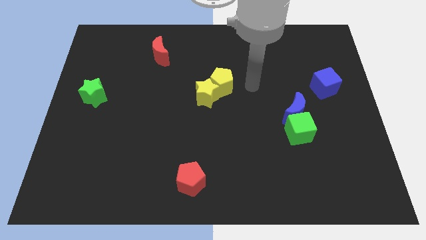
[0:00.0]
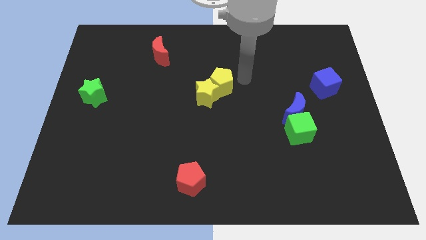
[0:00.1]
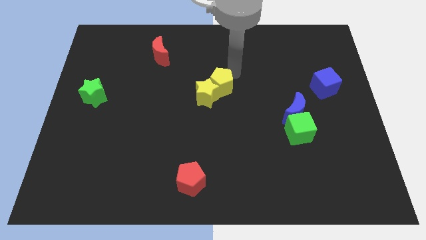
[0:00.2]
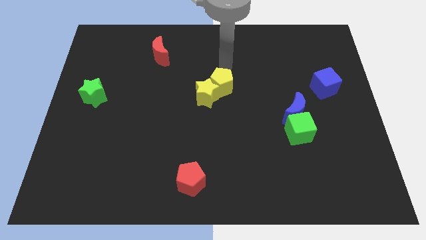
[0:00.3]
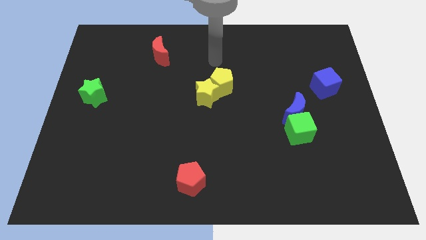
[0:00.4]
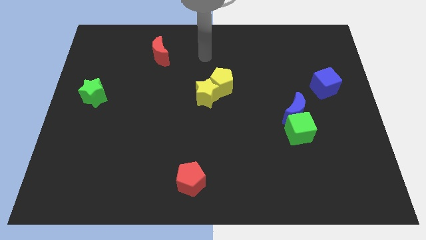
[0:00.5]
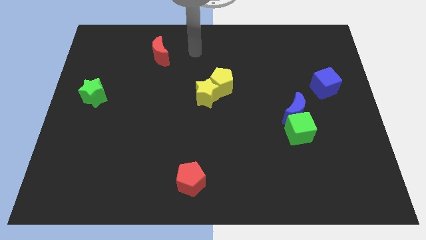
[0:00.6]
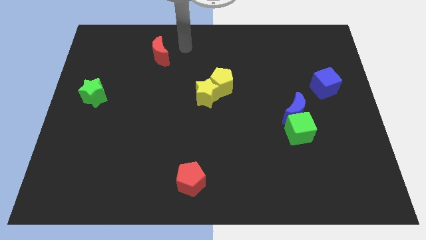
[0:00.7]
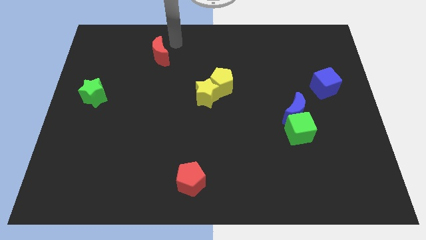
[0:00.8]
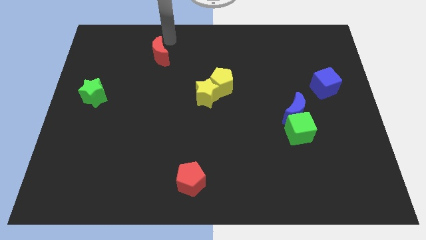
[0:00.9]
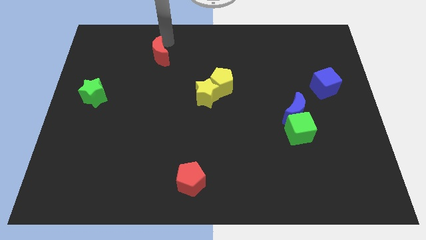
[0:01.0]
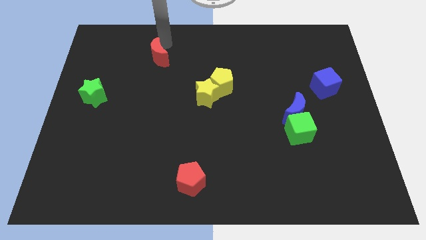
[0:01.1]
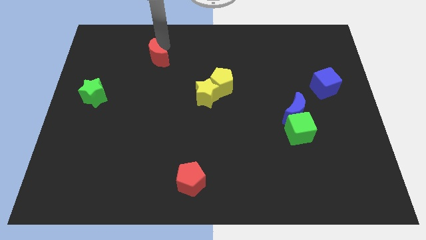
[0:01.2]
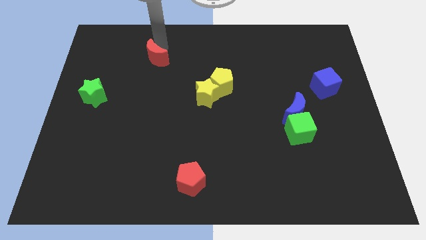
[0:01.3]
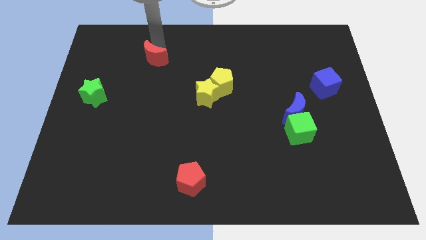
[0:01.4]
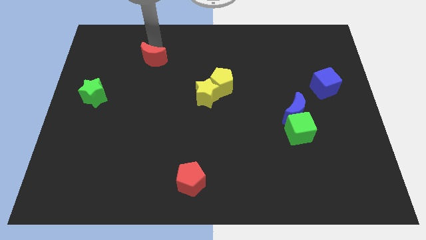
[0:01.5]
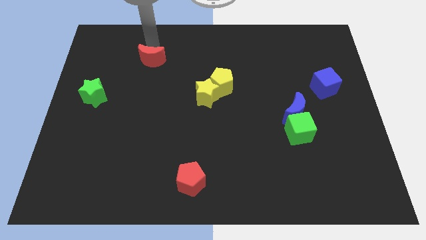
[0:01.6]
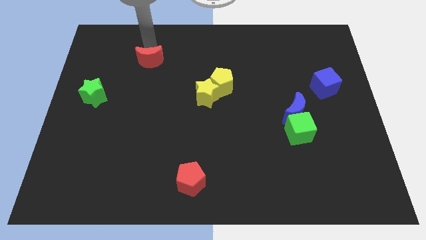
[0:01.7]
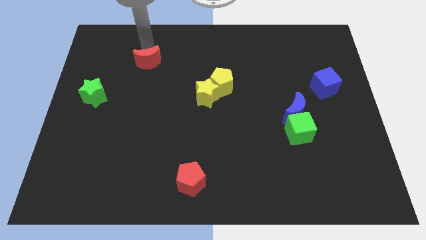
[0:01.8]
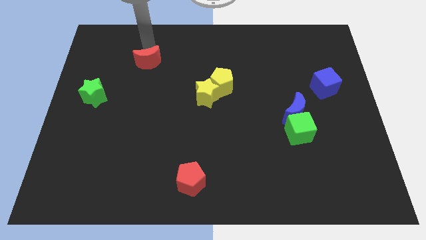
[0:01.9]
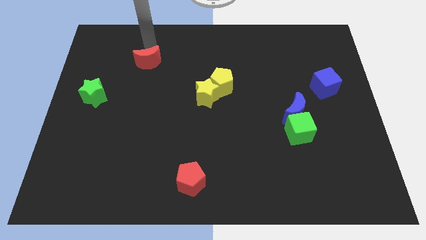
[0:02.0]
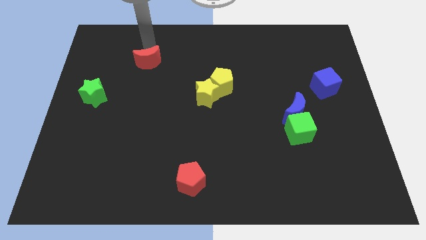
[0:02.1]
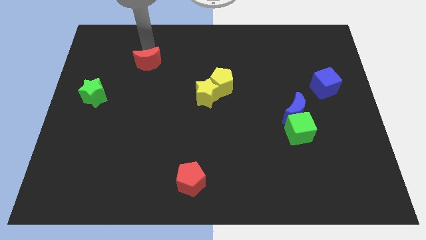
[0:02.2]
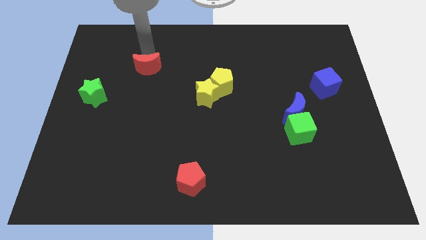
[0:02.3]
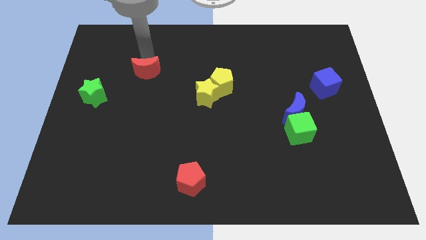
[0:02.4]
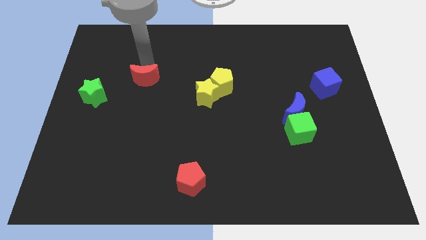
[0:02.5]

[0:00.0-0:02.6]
slightly slide the red moon downwards

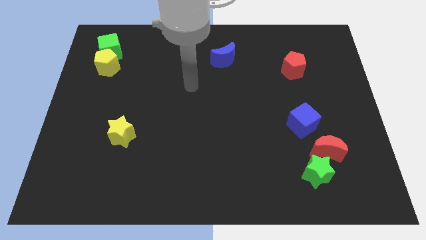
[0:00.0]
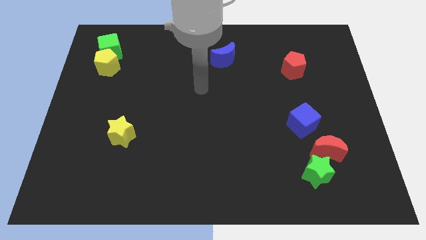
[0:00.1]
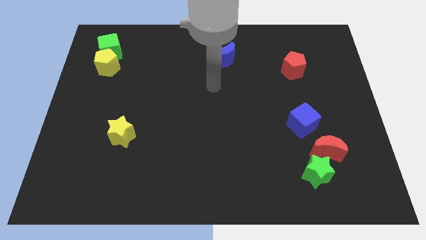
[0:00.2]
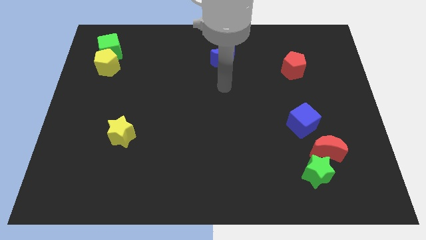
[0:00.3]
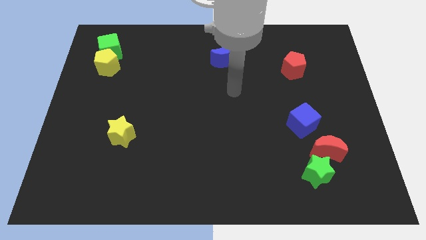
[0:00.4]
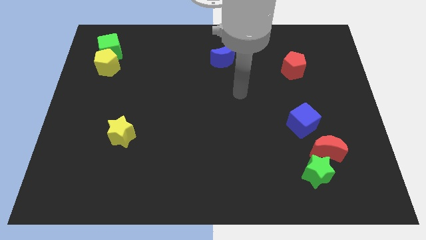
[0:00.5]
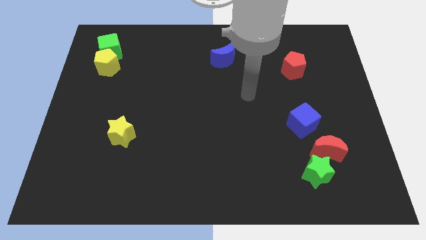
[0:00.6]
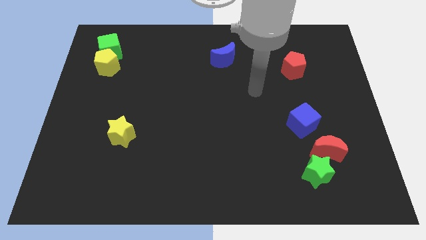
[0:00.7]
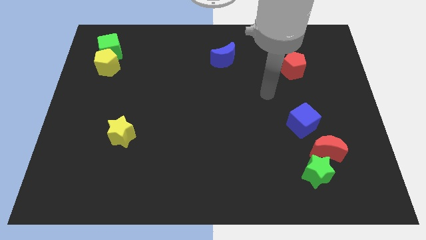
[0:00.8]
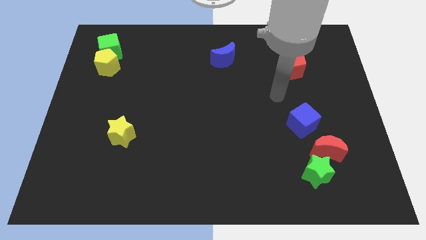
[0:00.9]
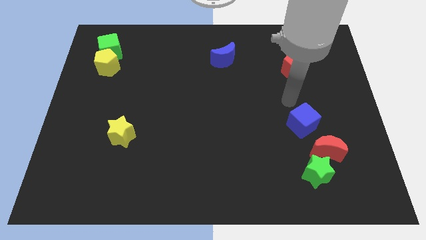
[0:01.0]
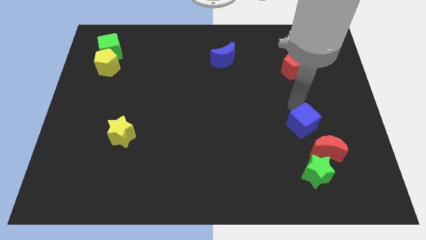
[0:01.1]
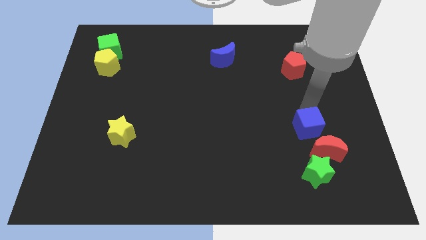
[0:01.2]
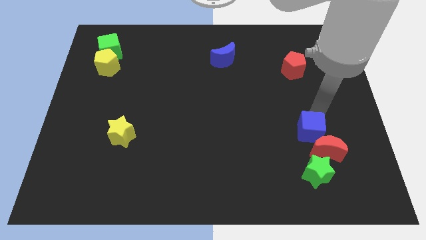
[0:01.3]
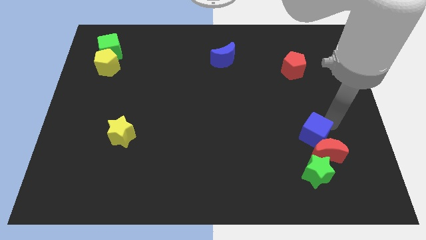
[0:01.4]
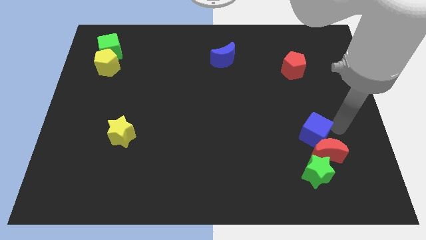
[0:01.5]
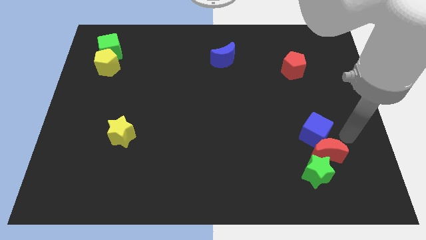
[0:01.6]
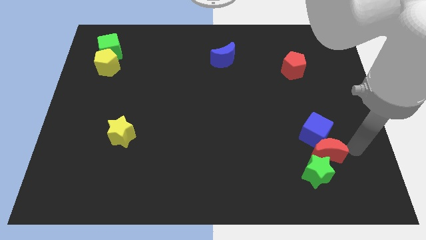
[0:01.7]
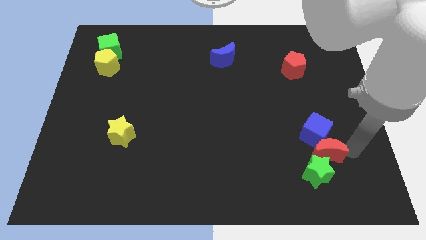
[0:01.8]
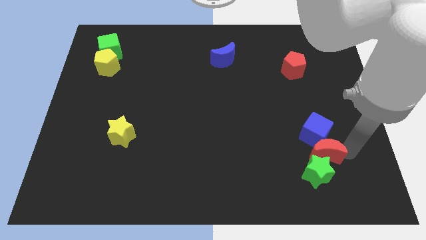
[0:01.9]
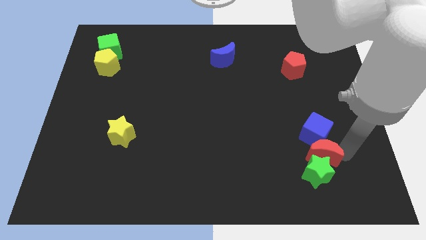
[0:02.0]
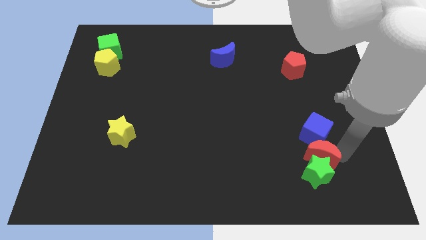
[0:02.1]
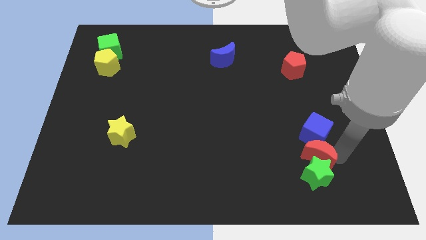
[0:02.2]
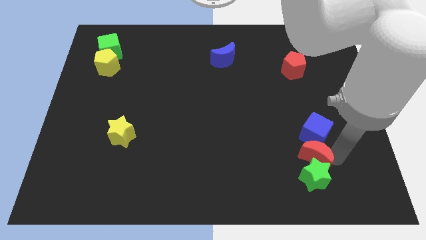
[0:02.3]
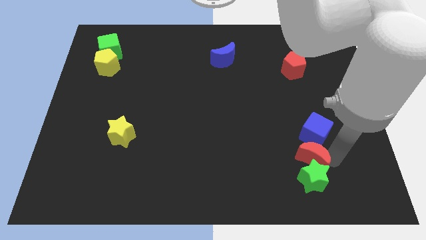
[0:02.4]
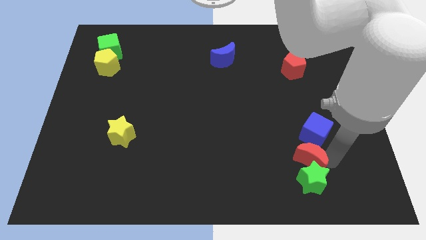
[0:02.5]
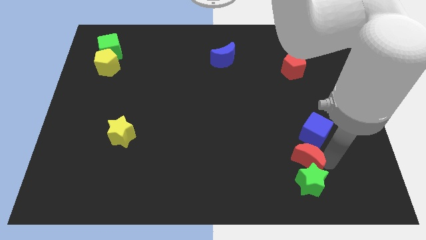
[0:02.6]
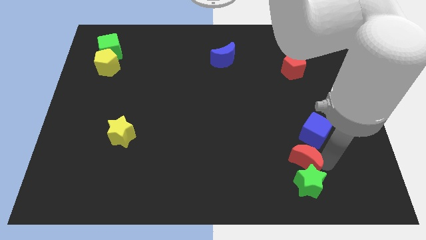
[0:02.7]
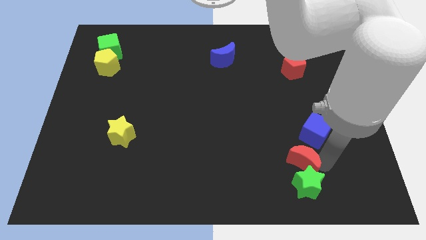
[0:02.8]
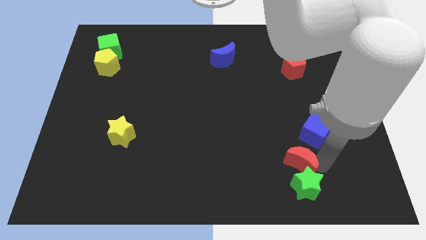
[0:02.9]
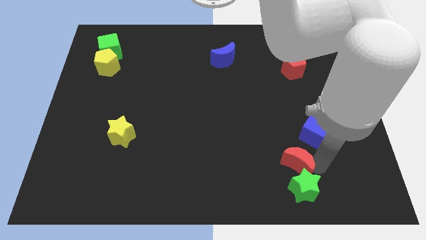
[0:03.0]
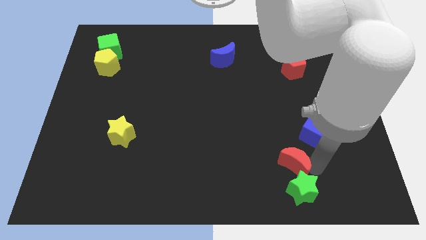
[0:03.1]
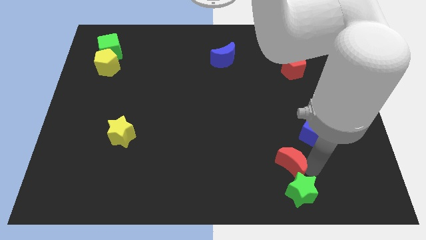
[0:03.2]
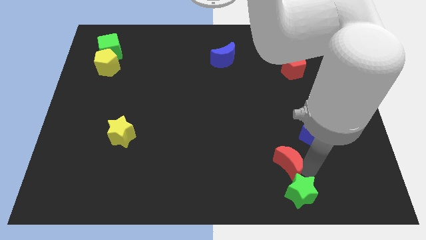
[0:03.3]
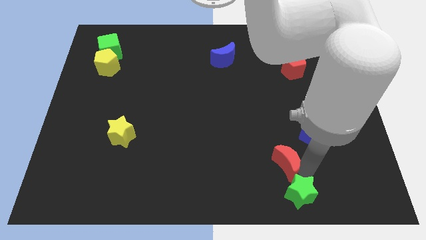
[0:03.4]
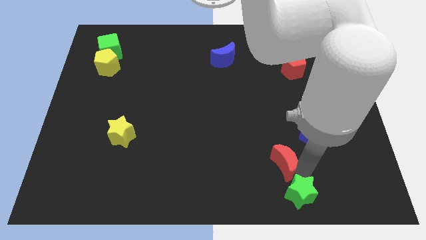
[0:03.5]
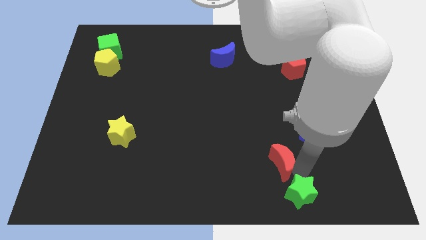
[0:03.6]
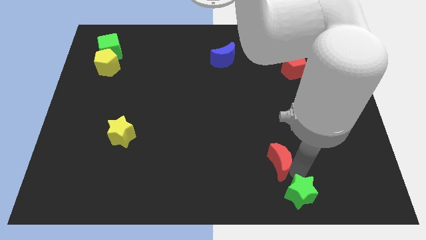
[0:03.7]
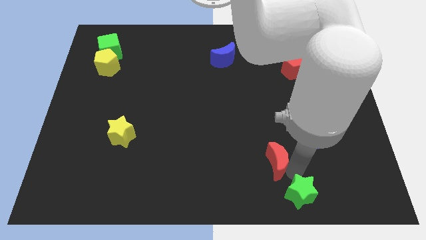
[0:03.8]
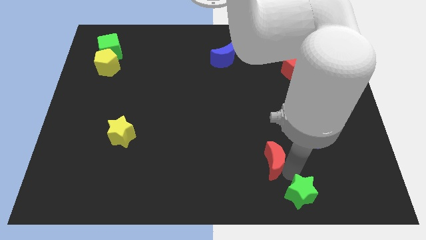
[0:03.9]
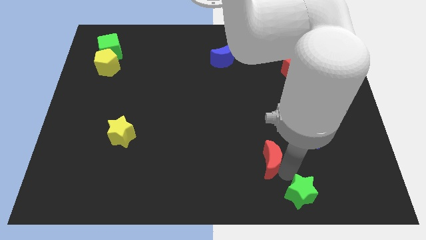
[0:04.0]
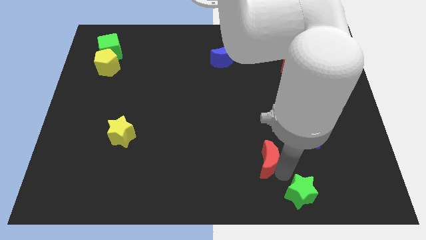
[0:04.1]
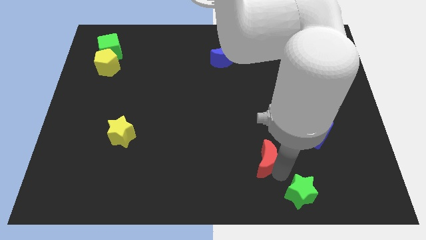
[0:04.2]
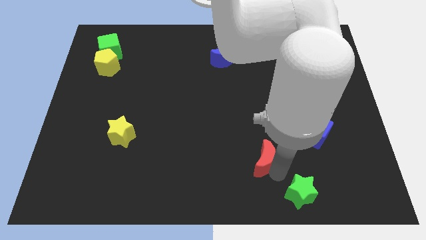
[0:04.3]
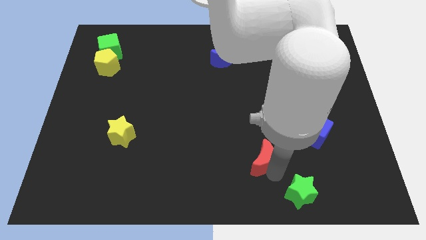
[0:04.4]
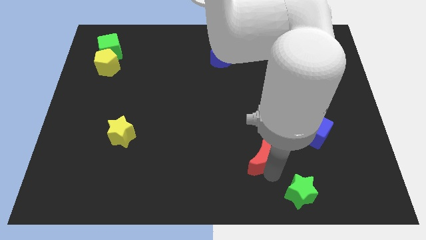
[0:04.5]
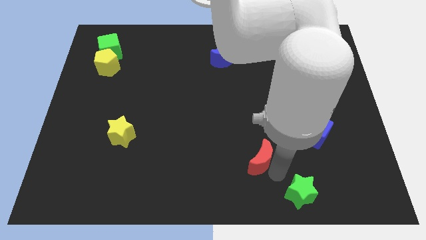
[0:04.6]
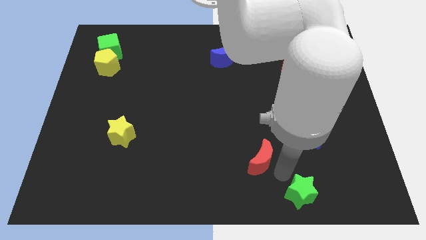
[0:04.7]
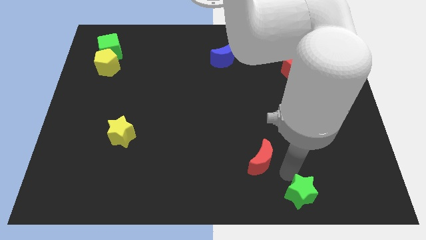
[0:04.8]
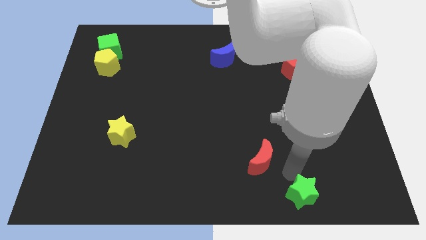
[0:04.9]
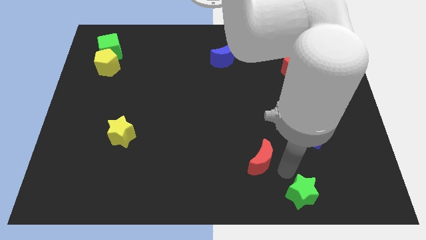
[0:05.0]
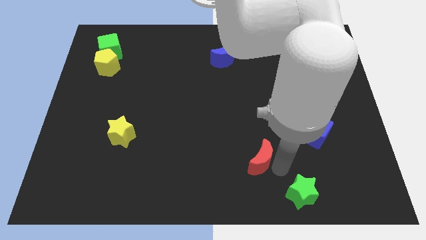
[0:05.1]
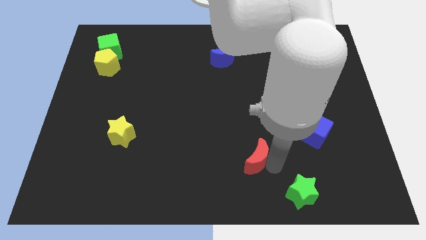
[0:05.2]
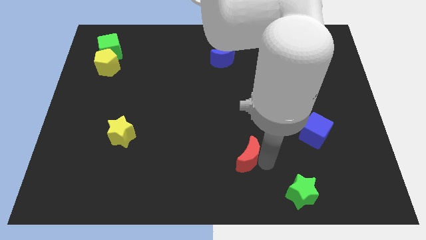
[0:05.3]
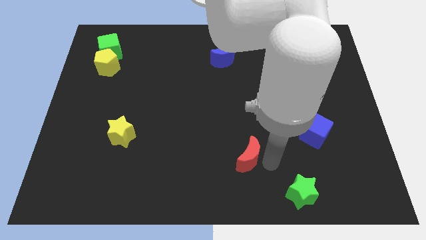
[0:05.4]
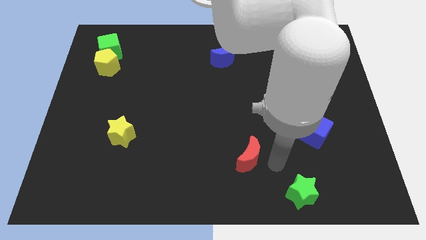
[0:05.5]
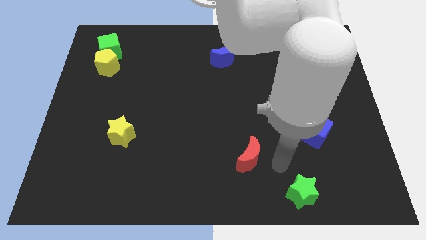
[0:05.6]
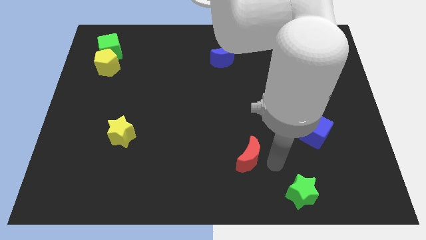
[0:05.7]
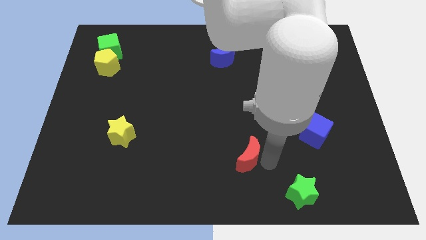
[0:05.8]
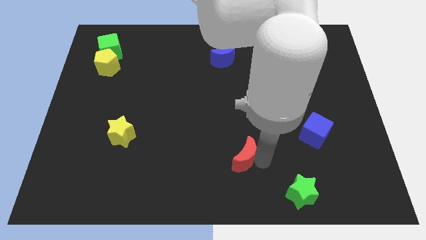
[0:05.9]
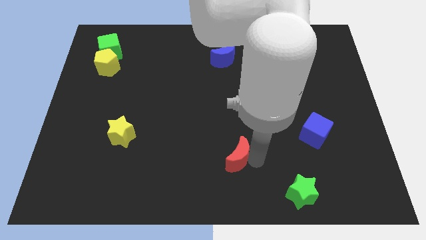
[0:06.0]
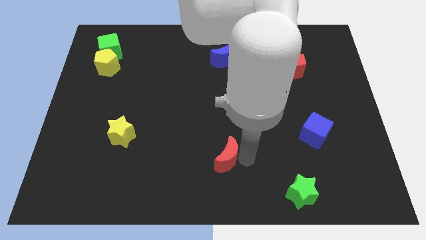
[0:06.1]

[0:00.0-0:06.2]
slide the red moon to the left
